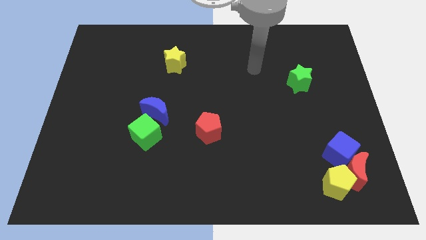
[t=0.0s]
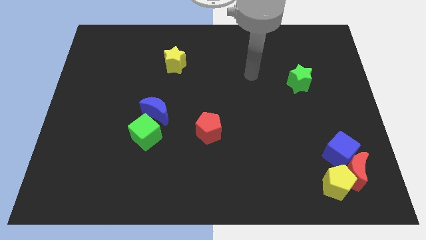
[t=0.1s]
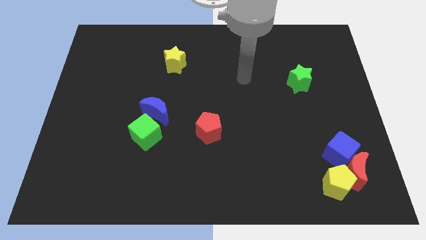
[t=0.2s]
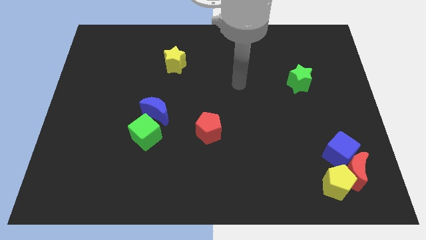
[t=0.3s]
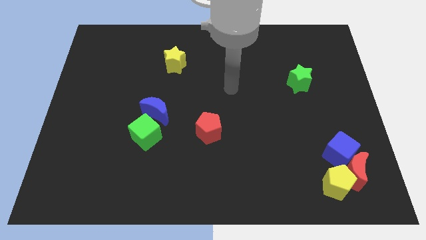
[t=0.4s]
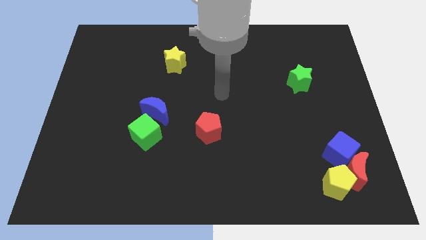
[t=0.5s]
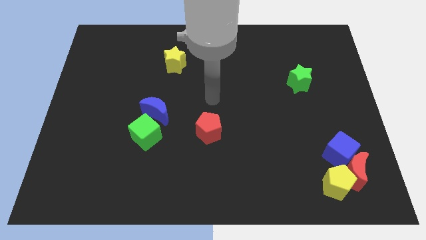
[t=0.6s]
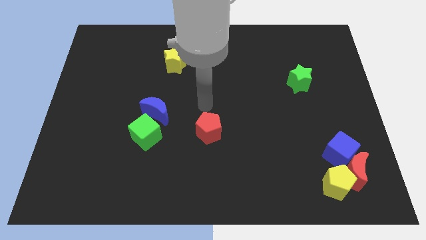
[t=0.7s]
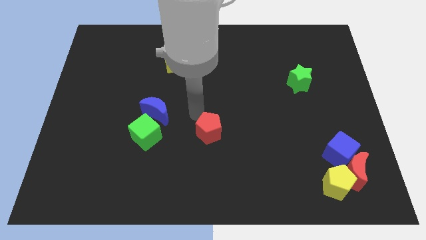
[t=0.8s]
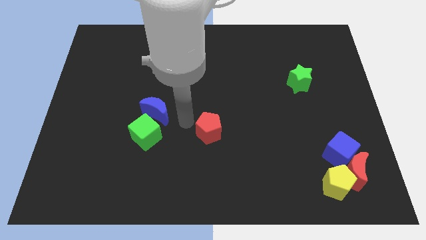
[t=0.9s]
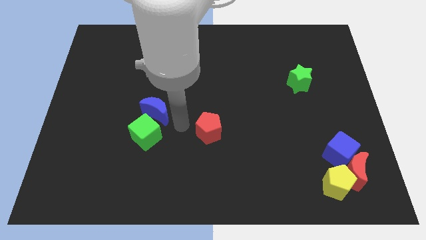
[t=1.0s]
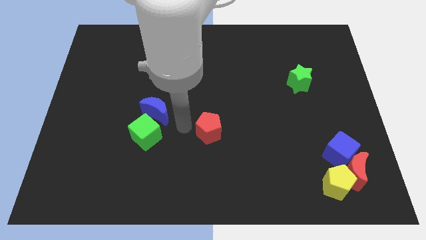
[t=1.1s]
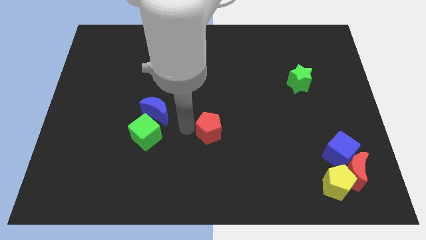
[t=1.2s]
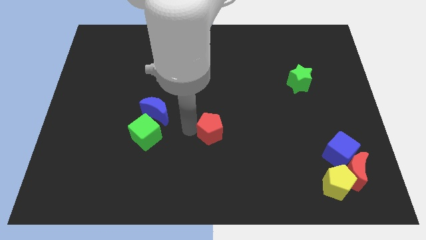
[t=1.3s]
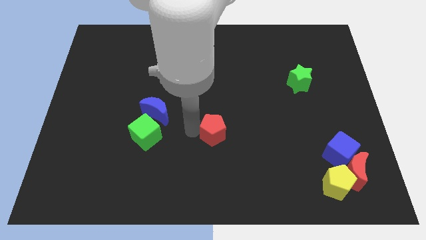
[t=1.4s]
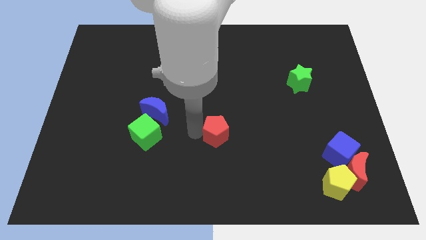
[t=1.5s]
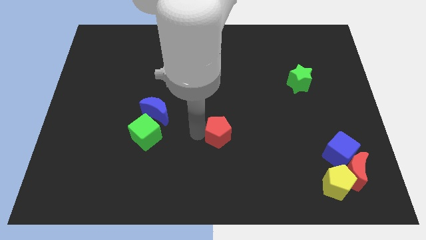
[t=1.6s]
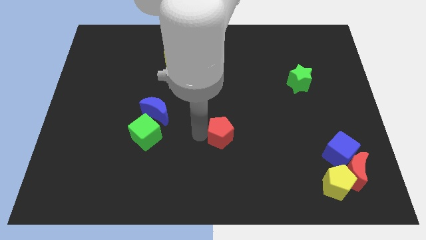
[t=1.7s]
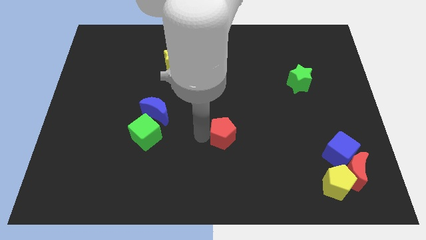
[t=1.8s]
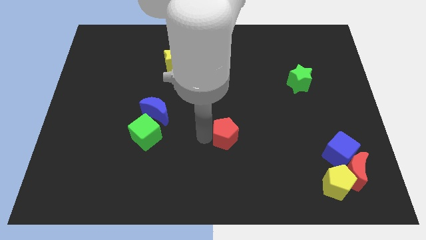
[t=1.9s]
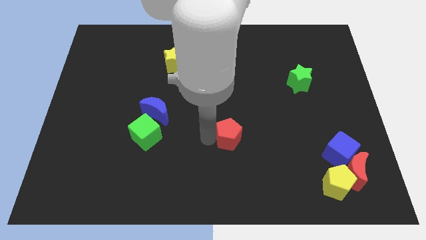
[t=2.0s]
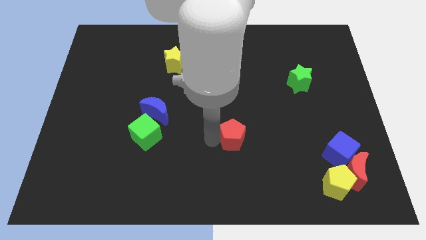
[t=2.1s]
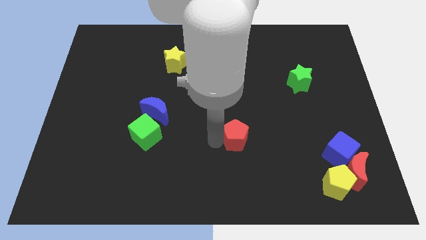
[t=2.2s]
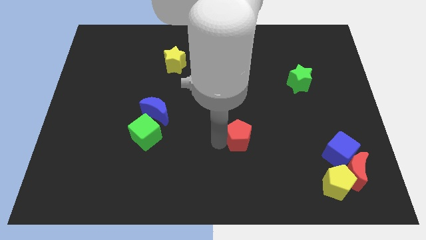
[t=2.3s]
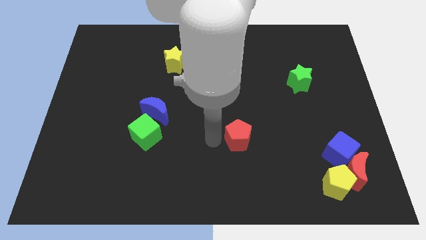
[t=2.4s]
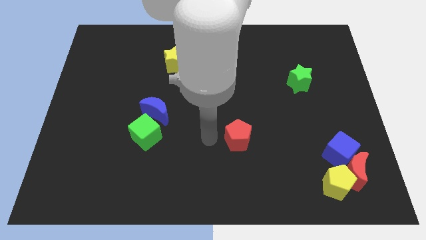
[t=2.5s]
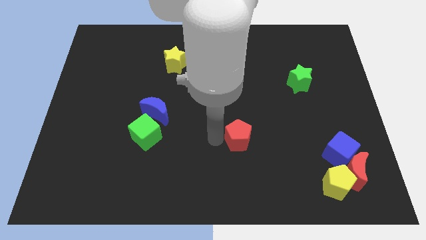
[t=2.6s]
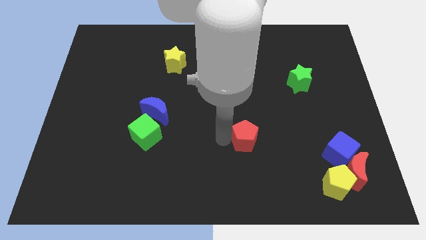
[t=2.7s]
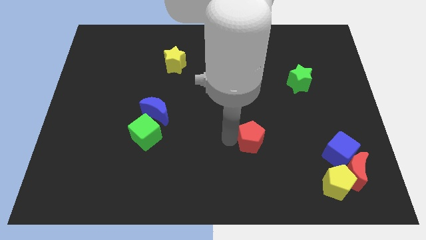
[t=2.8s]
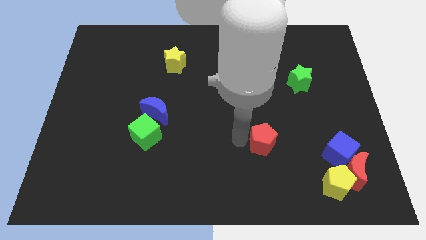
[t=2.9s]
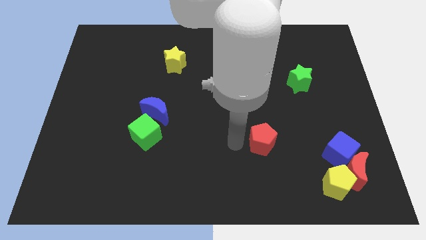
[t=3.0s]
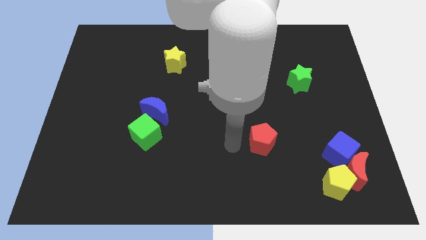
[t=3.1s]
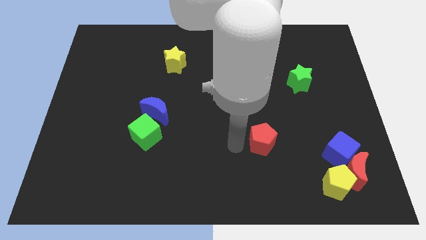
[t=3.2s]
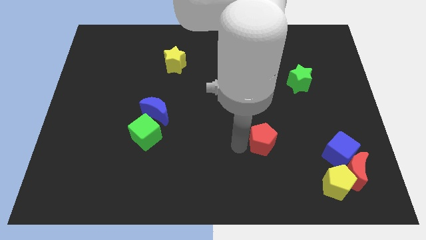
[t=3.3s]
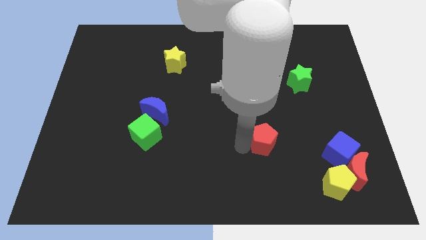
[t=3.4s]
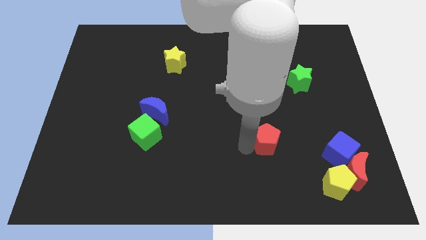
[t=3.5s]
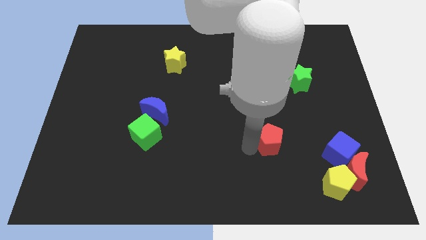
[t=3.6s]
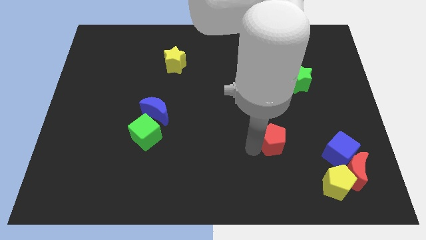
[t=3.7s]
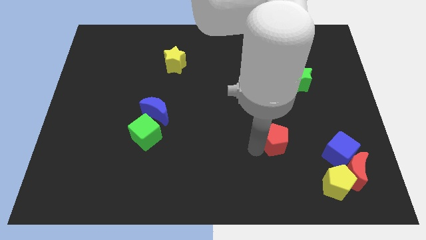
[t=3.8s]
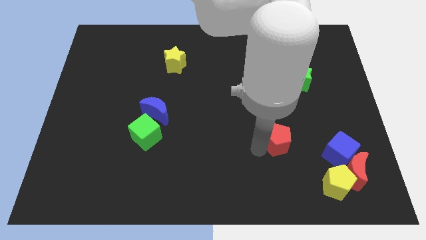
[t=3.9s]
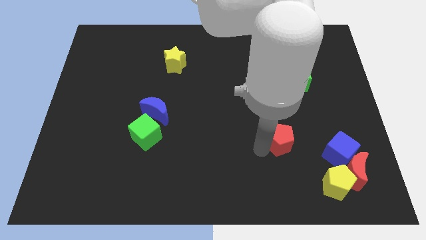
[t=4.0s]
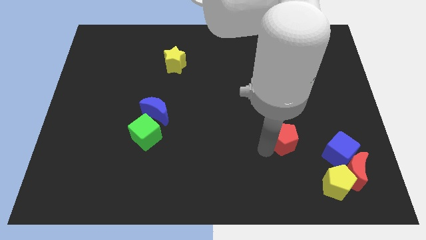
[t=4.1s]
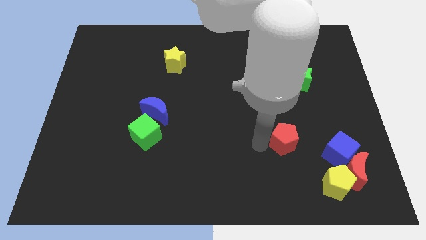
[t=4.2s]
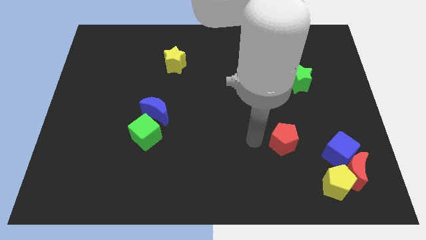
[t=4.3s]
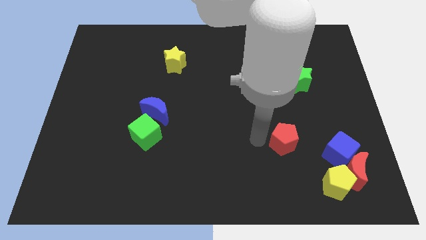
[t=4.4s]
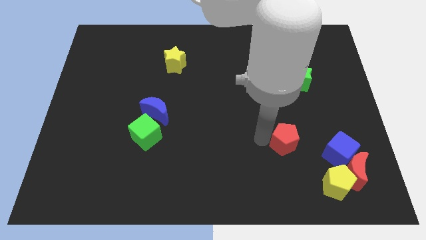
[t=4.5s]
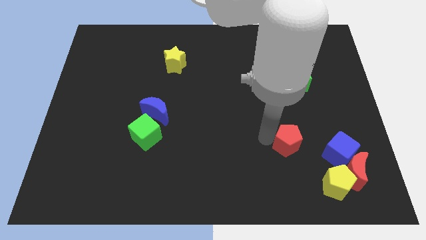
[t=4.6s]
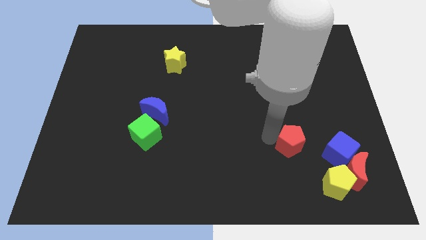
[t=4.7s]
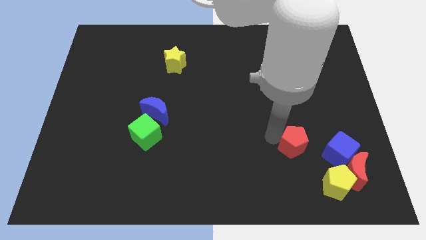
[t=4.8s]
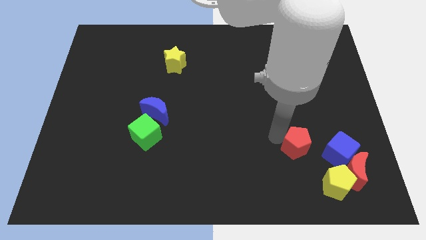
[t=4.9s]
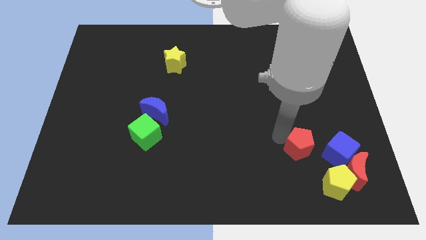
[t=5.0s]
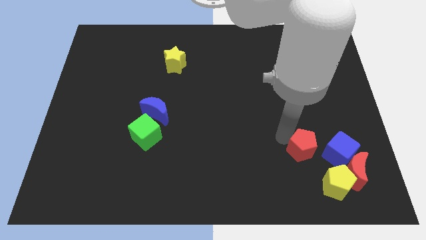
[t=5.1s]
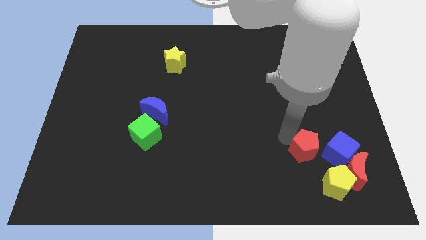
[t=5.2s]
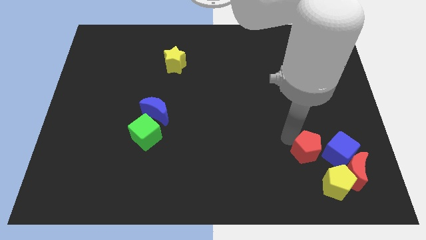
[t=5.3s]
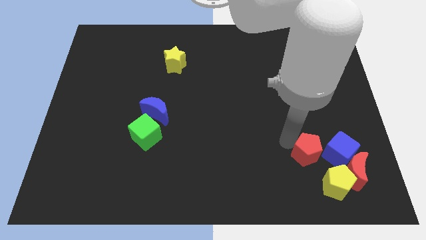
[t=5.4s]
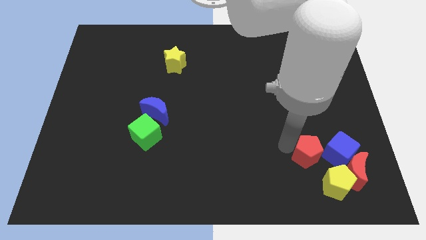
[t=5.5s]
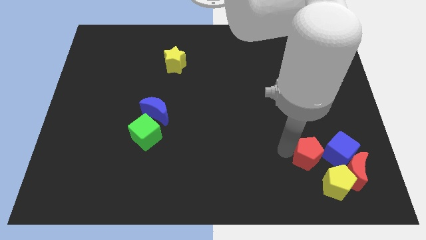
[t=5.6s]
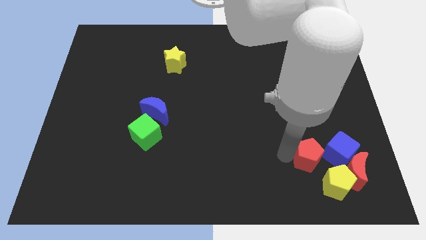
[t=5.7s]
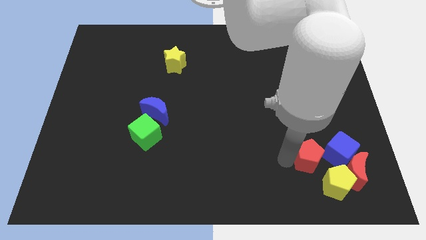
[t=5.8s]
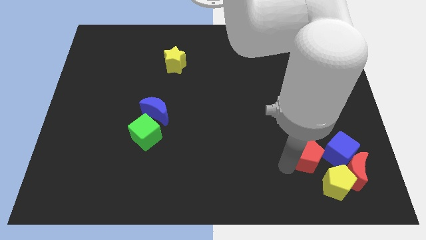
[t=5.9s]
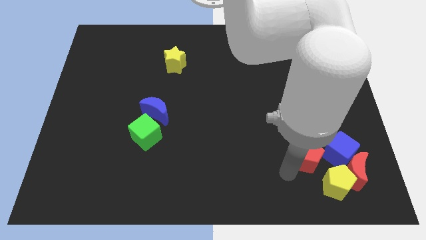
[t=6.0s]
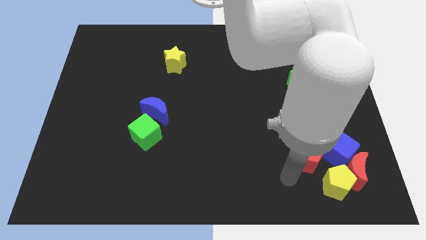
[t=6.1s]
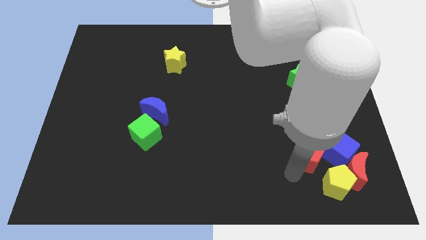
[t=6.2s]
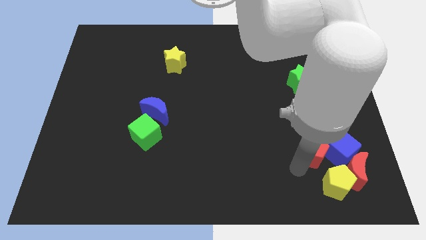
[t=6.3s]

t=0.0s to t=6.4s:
put the red pentagon close to the blue cube

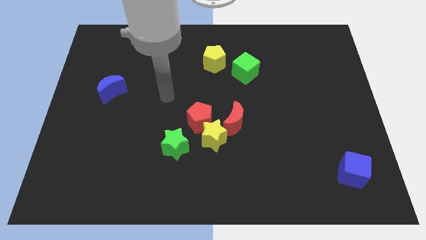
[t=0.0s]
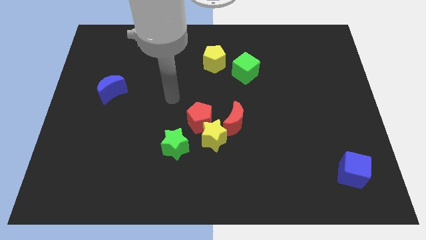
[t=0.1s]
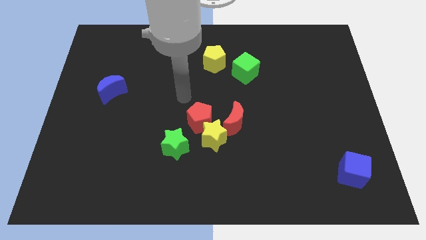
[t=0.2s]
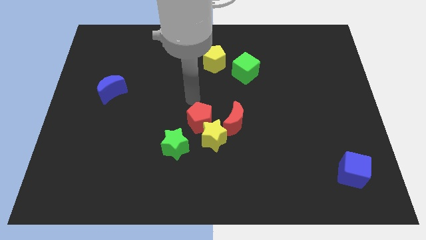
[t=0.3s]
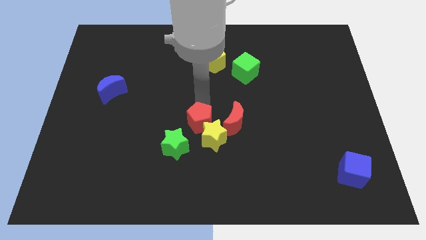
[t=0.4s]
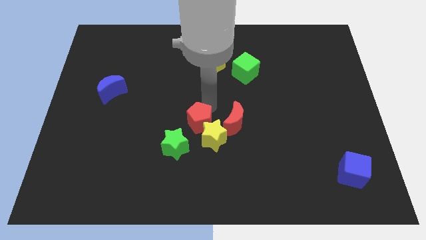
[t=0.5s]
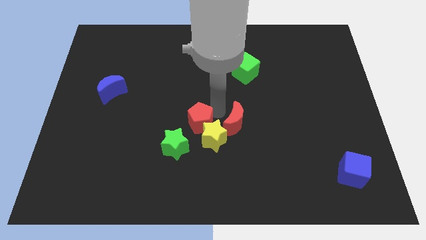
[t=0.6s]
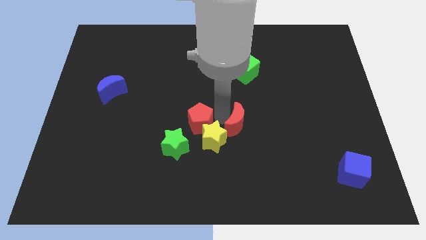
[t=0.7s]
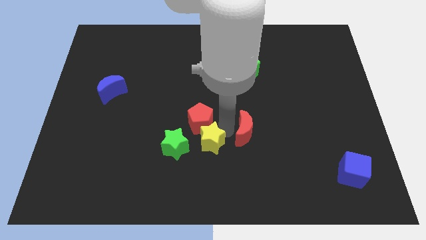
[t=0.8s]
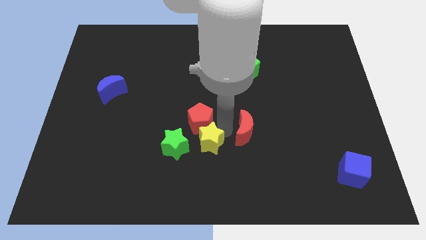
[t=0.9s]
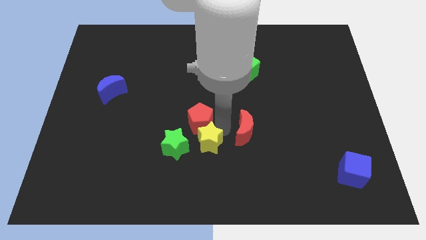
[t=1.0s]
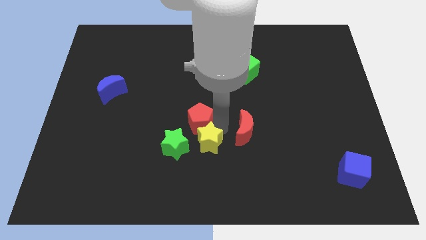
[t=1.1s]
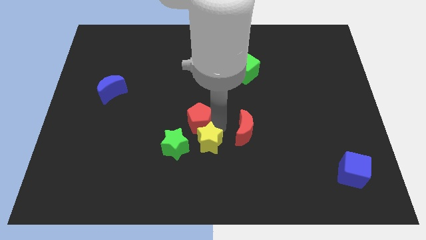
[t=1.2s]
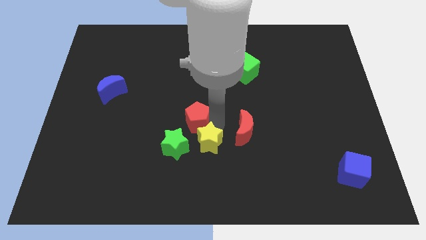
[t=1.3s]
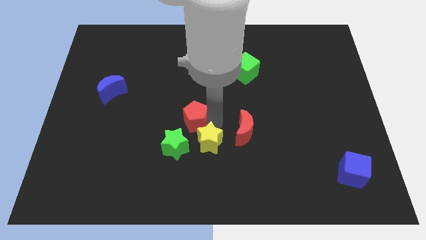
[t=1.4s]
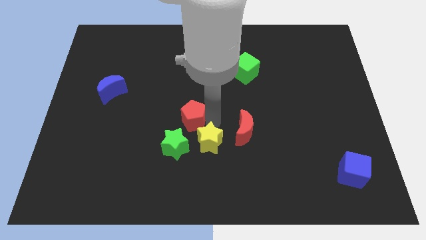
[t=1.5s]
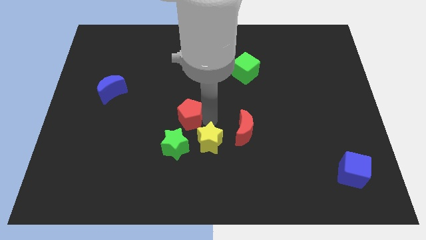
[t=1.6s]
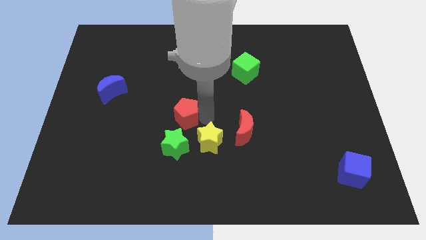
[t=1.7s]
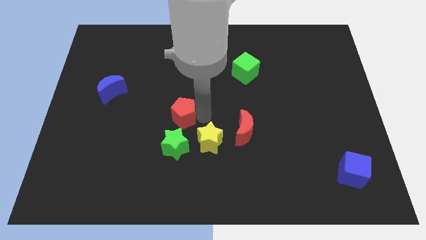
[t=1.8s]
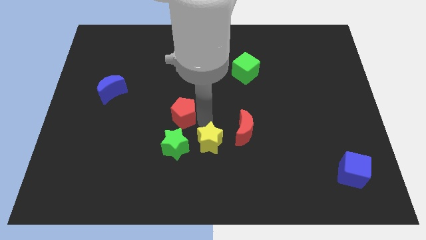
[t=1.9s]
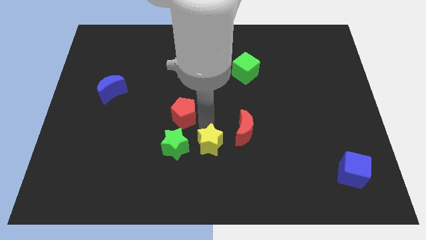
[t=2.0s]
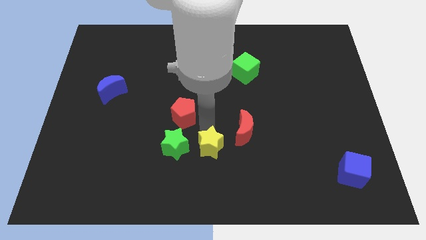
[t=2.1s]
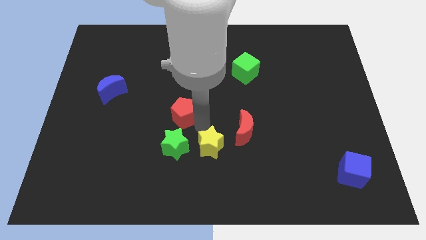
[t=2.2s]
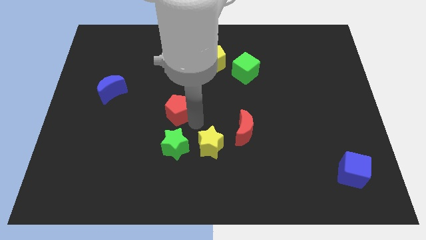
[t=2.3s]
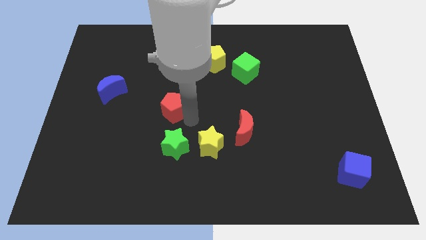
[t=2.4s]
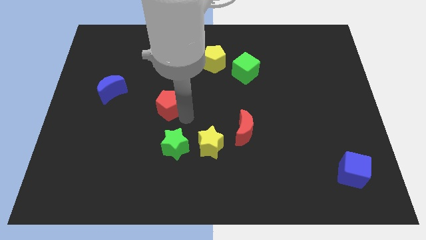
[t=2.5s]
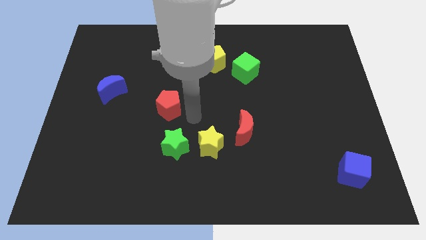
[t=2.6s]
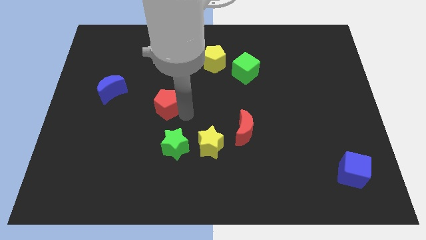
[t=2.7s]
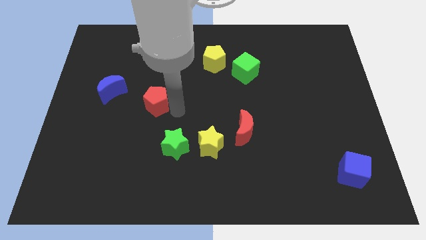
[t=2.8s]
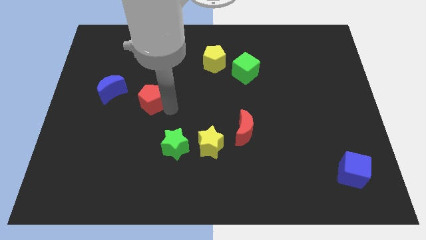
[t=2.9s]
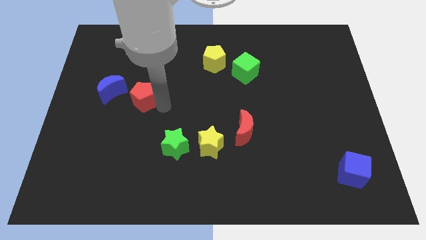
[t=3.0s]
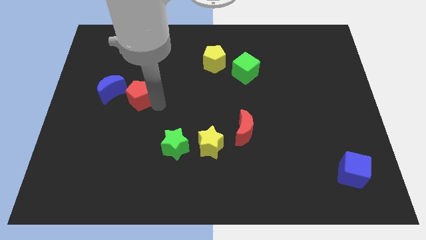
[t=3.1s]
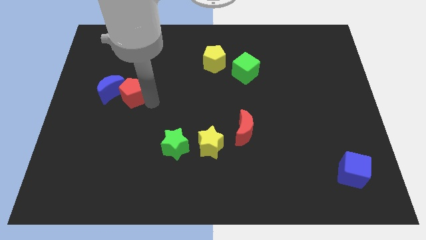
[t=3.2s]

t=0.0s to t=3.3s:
slide the red pentagon close to the blue moon
